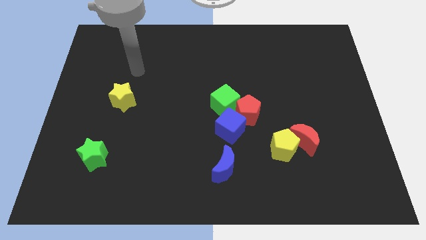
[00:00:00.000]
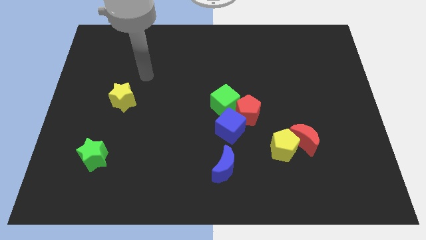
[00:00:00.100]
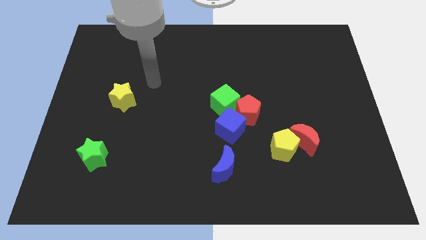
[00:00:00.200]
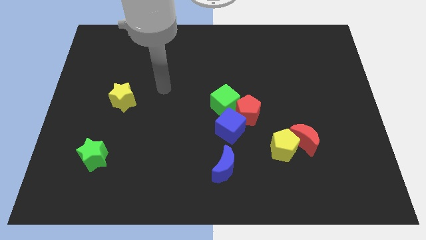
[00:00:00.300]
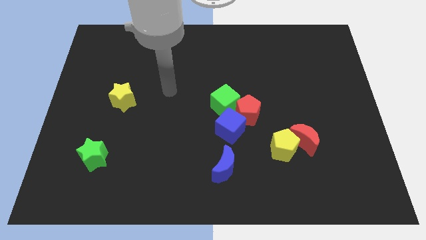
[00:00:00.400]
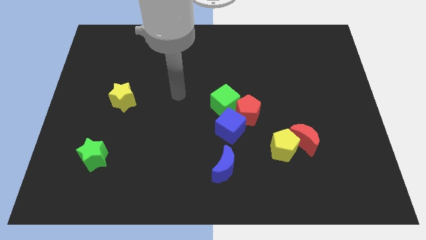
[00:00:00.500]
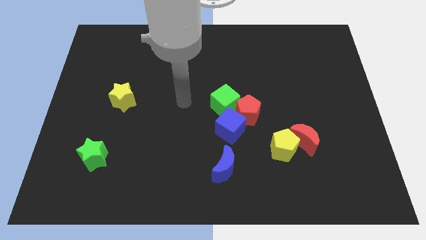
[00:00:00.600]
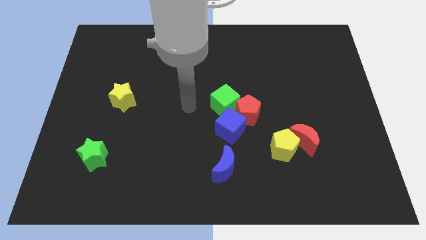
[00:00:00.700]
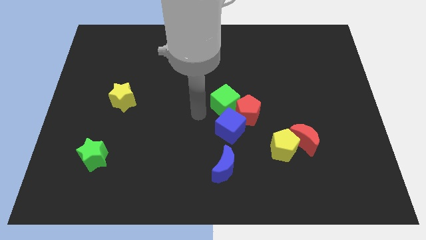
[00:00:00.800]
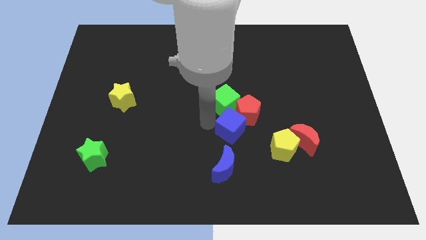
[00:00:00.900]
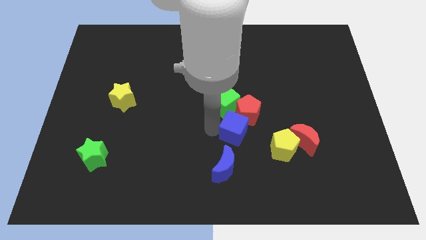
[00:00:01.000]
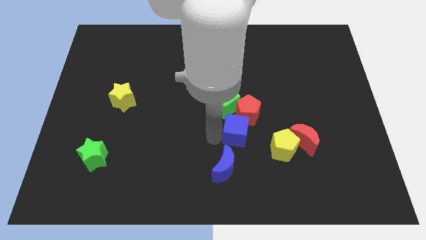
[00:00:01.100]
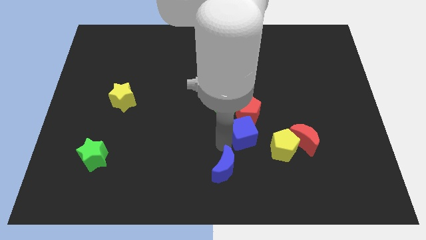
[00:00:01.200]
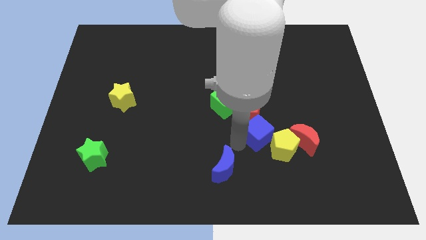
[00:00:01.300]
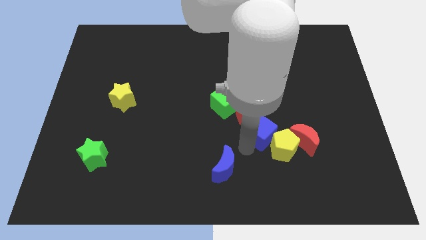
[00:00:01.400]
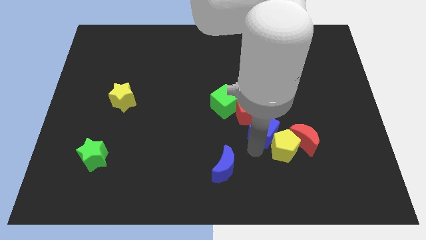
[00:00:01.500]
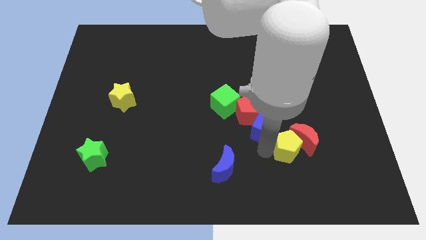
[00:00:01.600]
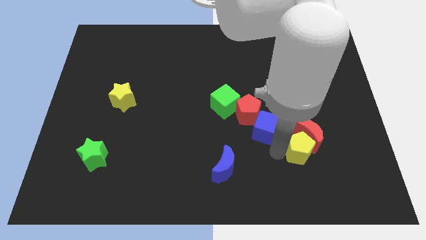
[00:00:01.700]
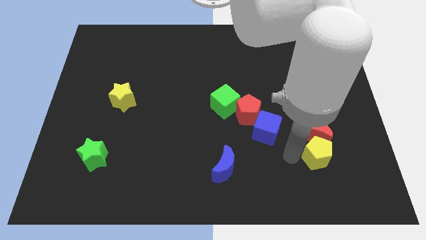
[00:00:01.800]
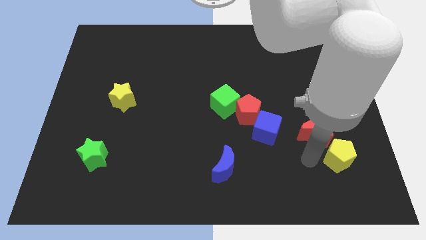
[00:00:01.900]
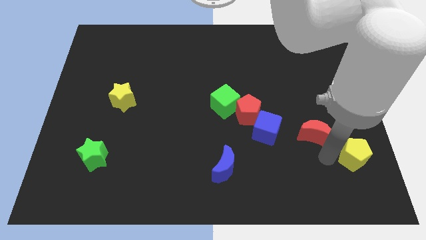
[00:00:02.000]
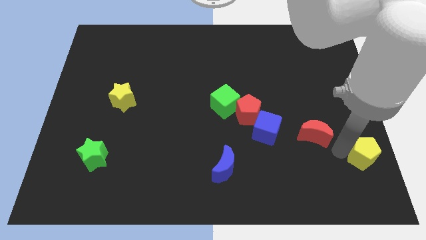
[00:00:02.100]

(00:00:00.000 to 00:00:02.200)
separate the red moon from the yellow pentagon

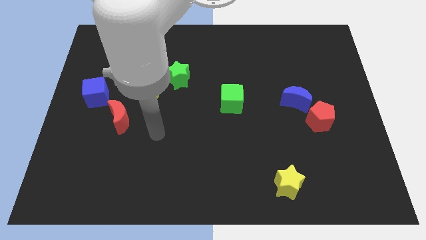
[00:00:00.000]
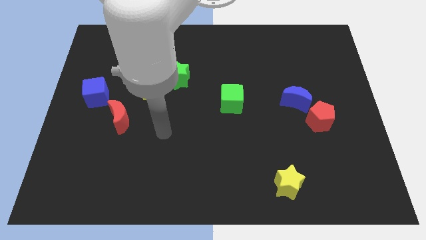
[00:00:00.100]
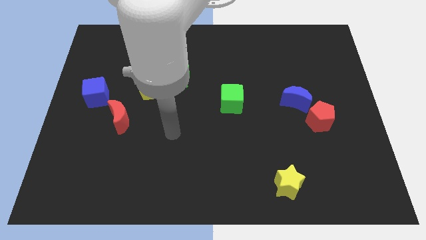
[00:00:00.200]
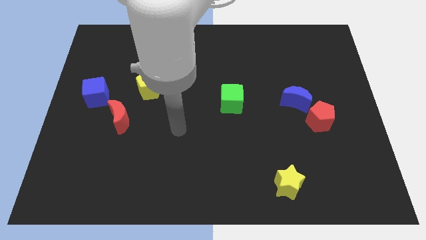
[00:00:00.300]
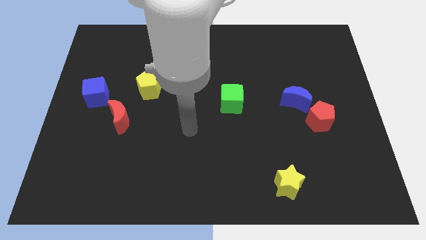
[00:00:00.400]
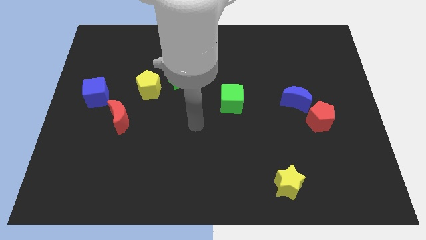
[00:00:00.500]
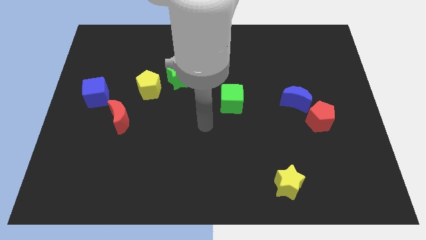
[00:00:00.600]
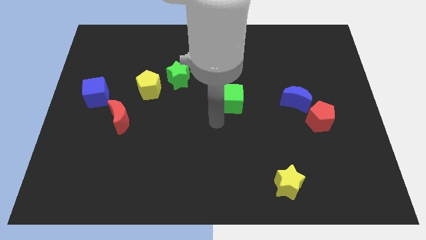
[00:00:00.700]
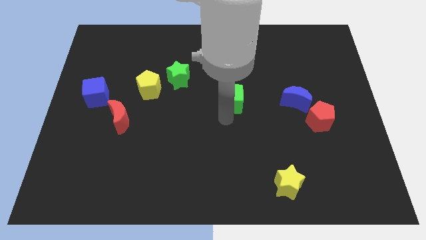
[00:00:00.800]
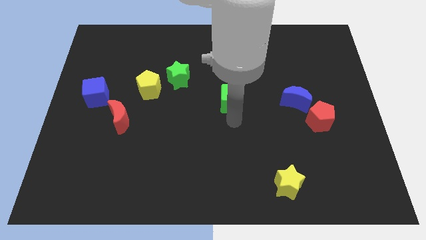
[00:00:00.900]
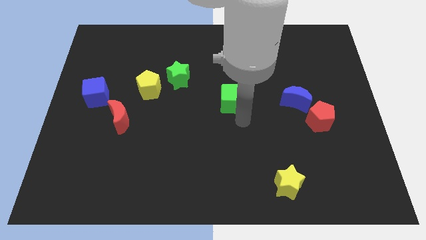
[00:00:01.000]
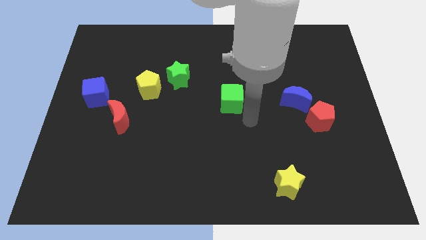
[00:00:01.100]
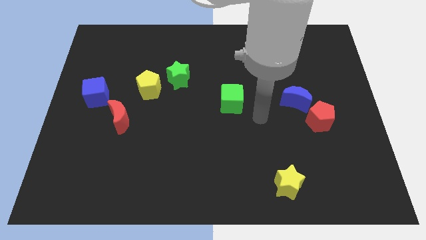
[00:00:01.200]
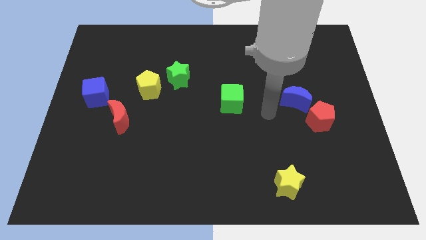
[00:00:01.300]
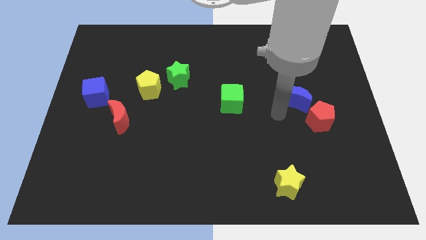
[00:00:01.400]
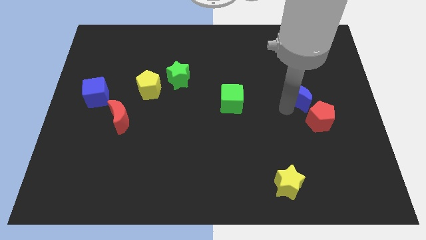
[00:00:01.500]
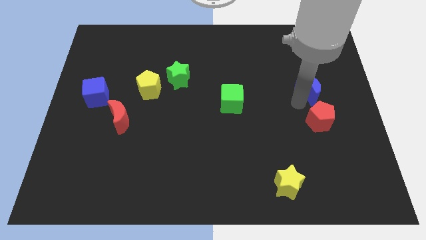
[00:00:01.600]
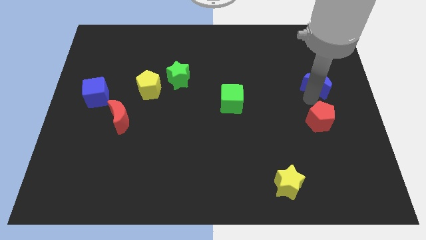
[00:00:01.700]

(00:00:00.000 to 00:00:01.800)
pull the red pentagon apart from the blue moon

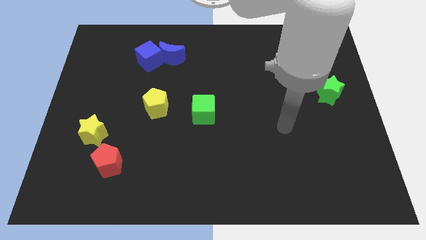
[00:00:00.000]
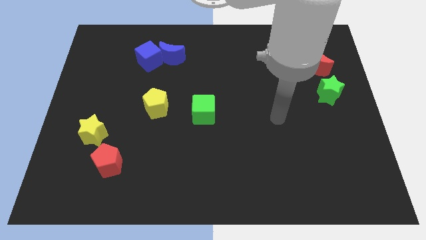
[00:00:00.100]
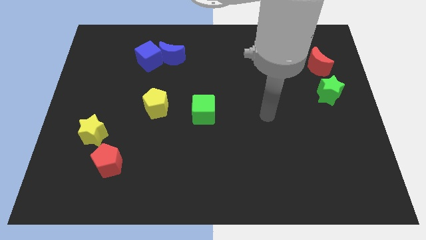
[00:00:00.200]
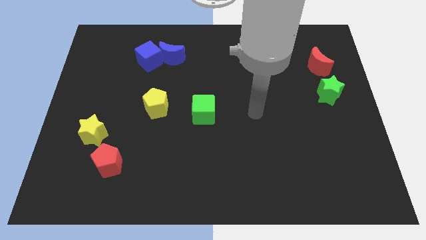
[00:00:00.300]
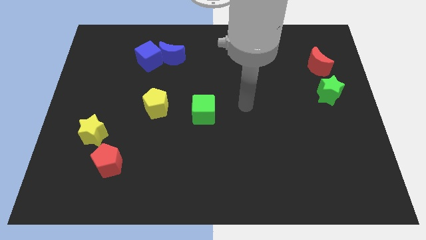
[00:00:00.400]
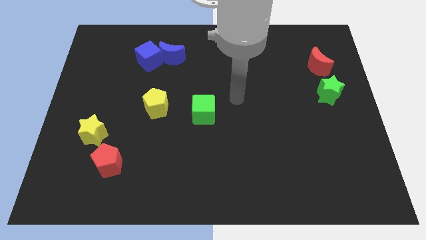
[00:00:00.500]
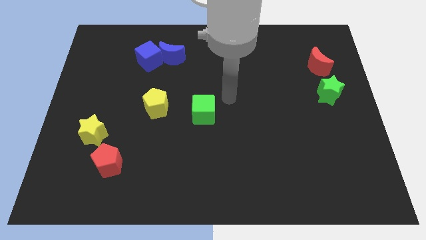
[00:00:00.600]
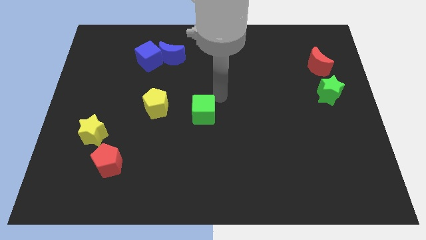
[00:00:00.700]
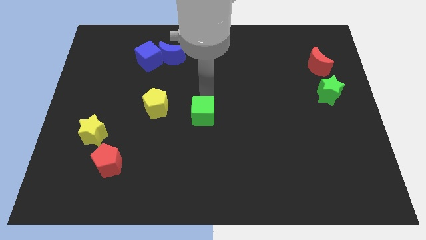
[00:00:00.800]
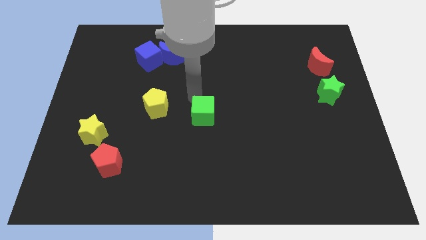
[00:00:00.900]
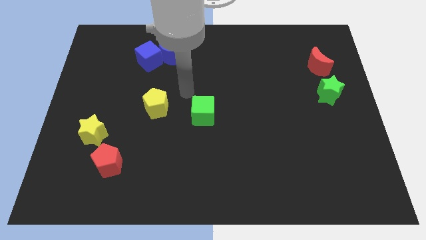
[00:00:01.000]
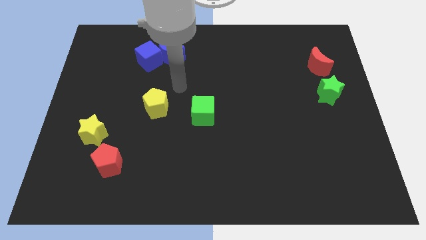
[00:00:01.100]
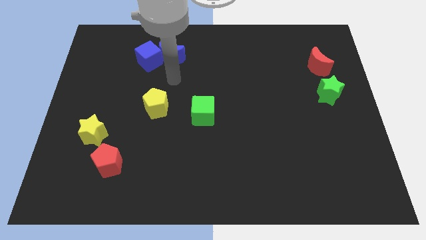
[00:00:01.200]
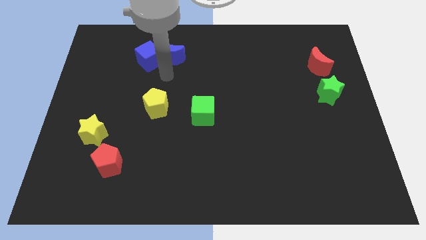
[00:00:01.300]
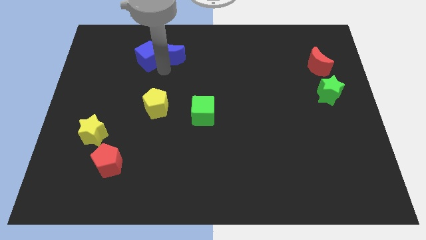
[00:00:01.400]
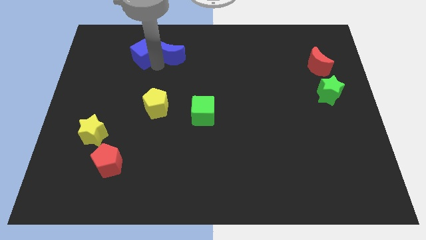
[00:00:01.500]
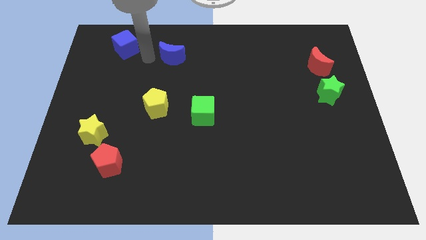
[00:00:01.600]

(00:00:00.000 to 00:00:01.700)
move the blue moon away from the blue cube

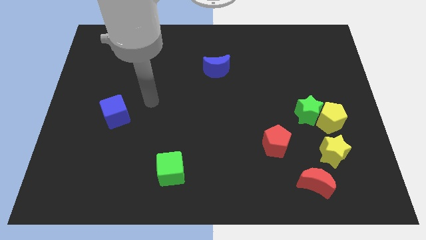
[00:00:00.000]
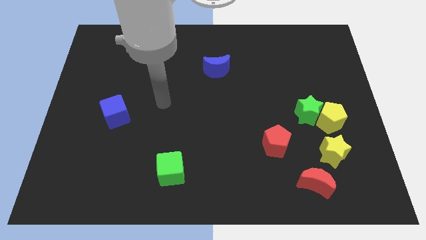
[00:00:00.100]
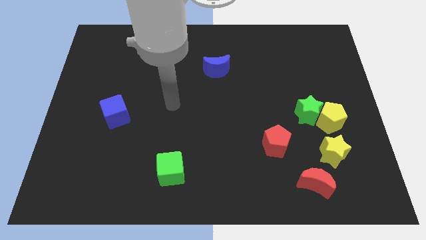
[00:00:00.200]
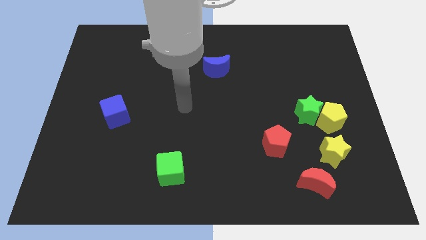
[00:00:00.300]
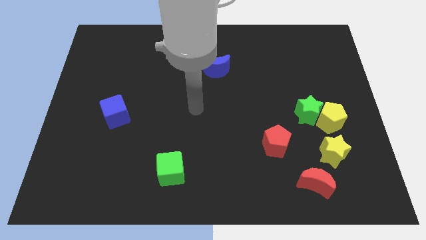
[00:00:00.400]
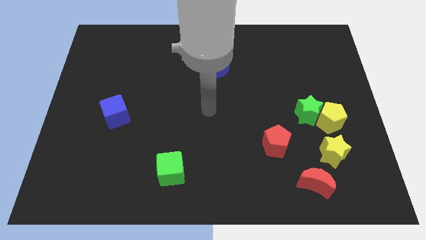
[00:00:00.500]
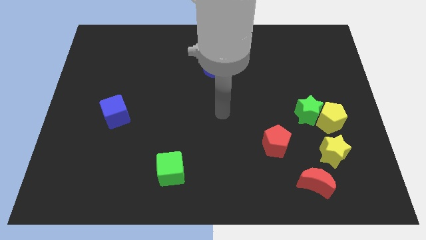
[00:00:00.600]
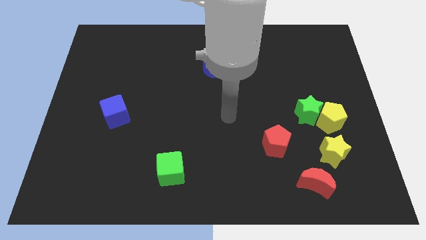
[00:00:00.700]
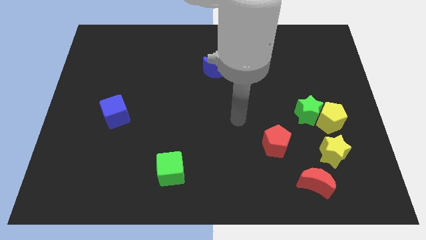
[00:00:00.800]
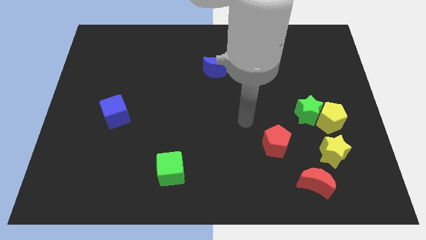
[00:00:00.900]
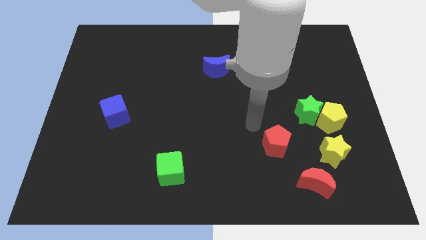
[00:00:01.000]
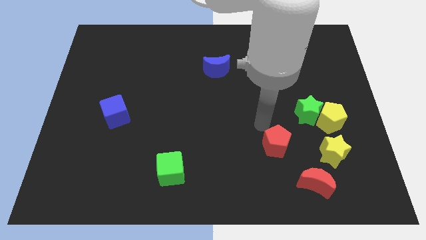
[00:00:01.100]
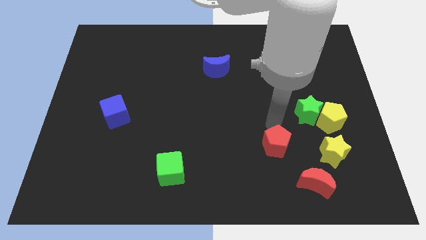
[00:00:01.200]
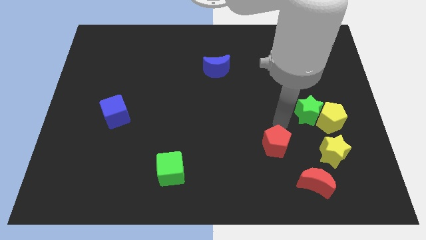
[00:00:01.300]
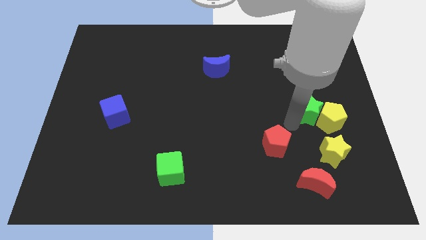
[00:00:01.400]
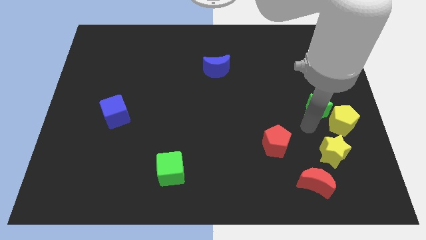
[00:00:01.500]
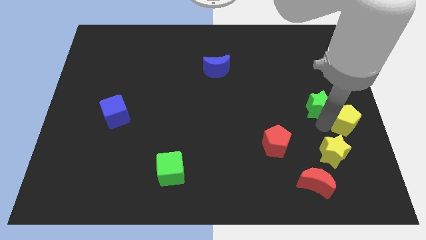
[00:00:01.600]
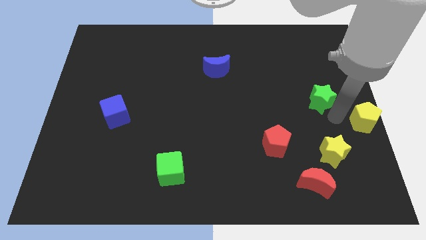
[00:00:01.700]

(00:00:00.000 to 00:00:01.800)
separate the green star from the yellow pentagon

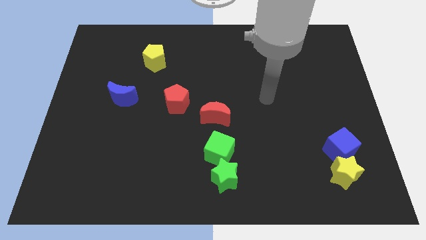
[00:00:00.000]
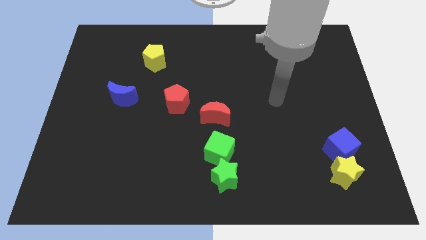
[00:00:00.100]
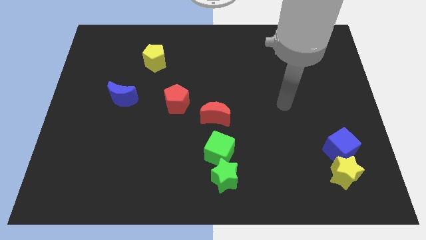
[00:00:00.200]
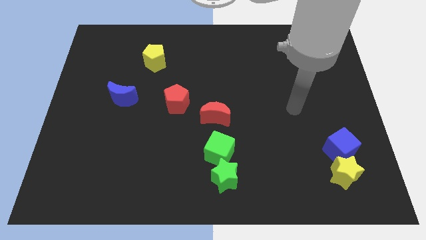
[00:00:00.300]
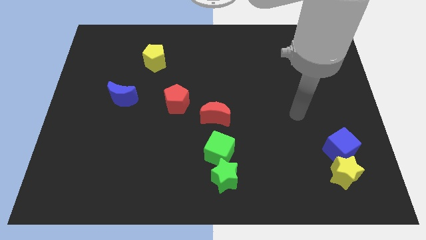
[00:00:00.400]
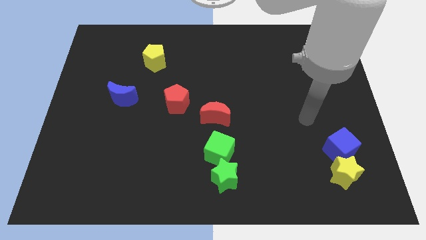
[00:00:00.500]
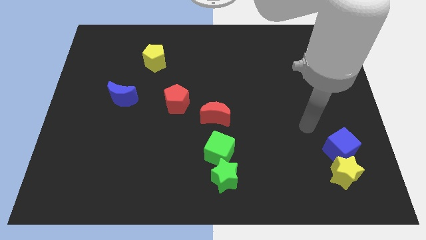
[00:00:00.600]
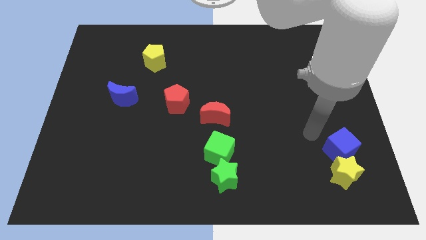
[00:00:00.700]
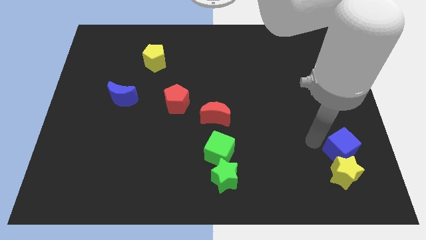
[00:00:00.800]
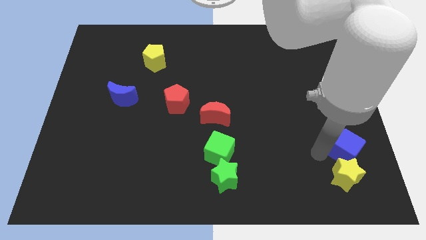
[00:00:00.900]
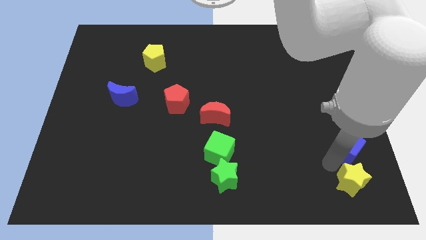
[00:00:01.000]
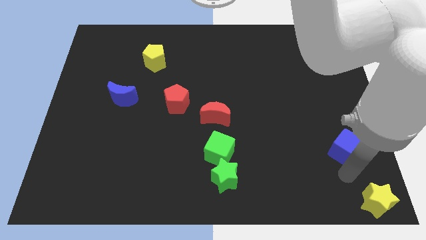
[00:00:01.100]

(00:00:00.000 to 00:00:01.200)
move the blue cube away from the yellow star

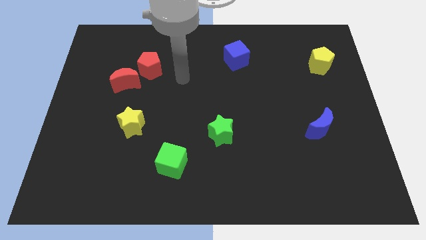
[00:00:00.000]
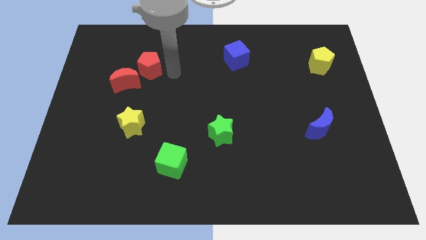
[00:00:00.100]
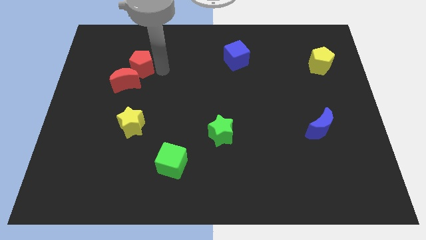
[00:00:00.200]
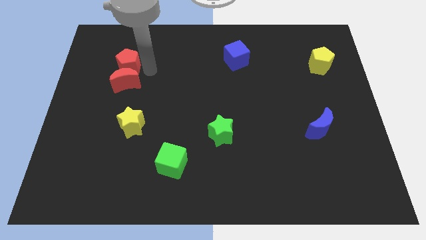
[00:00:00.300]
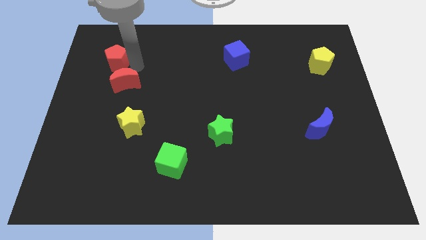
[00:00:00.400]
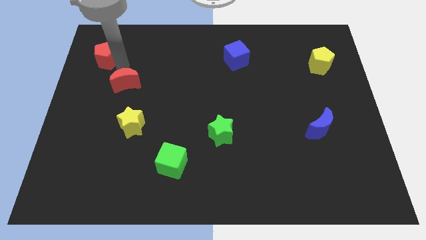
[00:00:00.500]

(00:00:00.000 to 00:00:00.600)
move the red moon away from the red pentagon

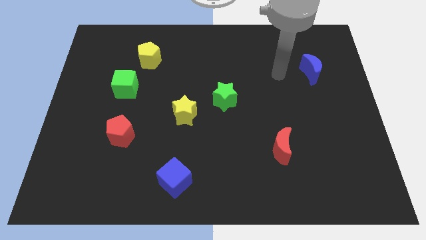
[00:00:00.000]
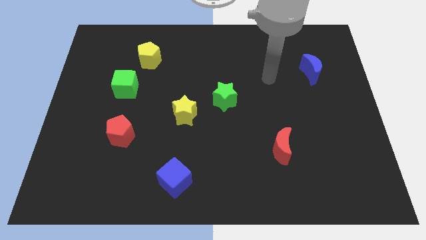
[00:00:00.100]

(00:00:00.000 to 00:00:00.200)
move the green star away from the yellow star
